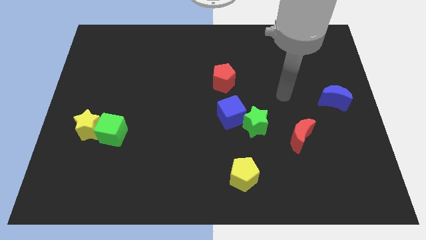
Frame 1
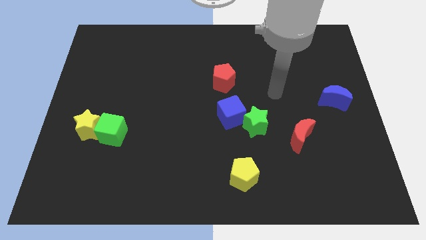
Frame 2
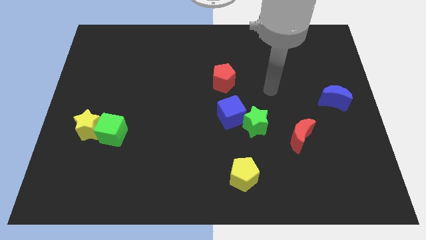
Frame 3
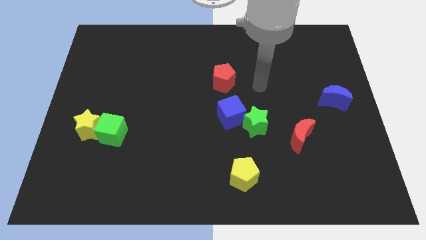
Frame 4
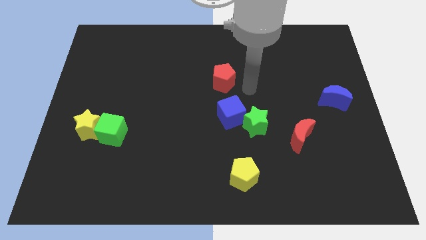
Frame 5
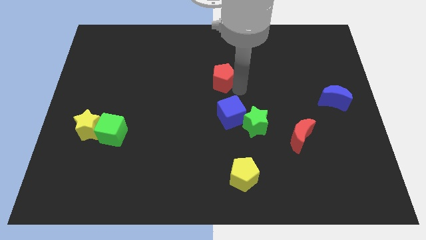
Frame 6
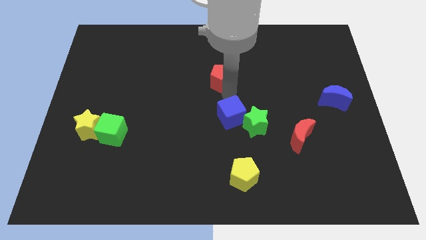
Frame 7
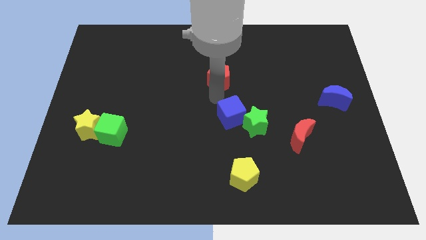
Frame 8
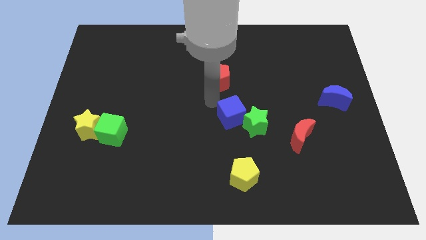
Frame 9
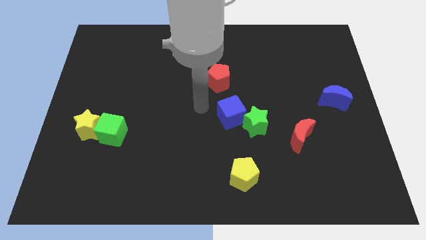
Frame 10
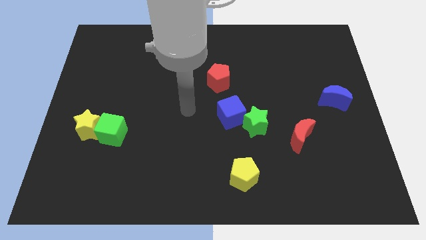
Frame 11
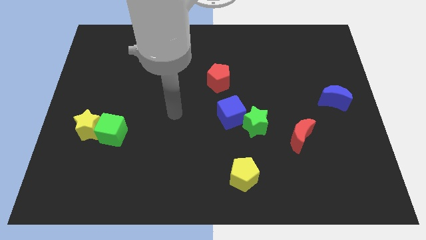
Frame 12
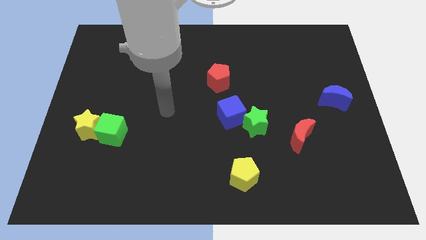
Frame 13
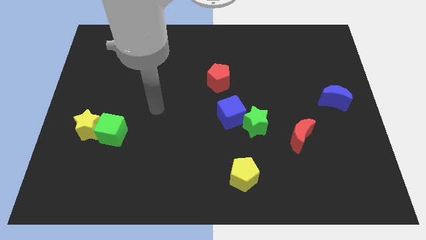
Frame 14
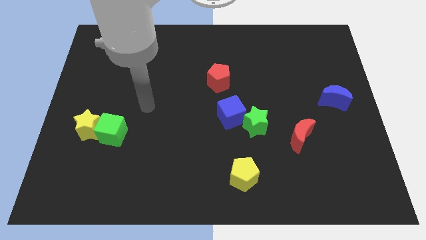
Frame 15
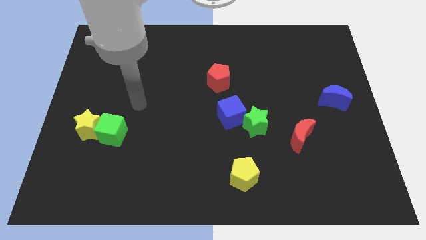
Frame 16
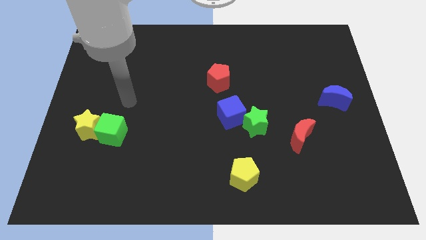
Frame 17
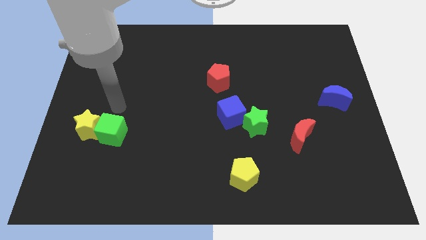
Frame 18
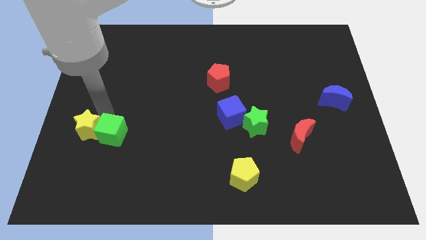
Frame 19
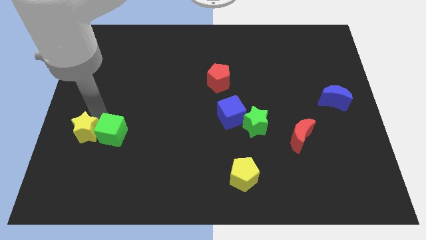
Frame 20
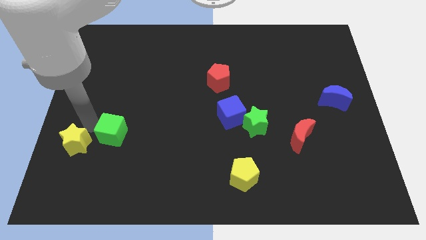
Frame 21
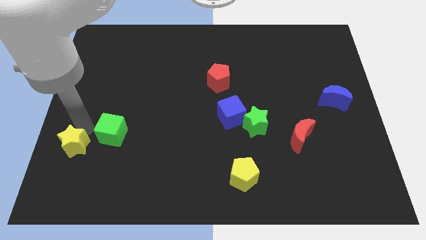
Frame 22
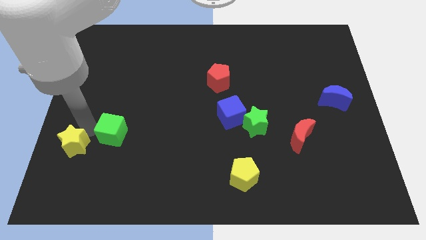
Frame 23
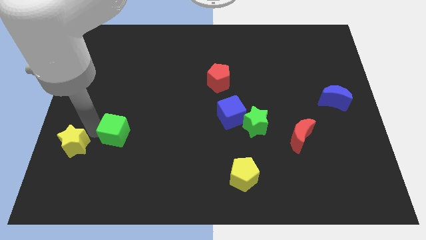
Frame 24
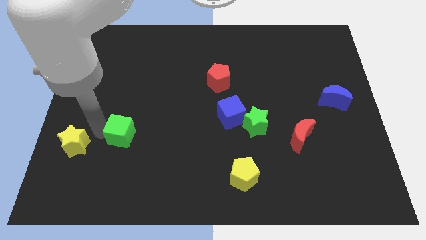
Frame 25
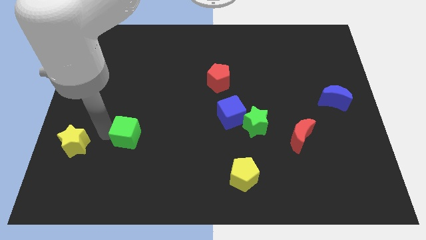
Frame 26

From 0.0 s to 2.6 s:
separate the green cube from the yellow star

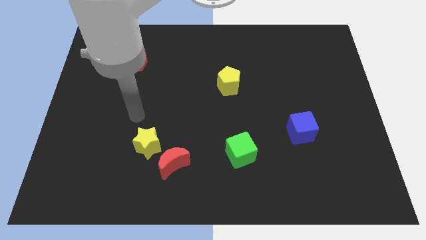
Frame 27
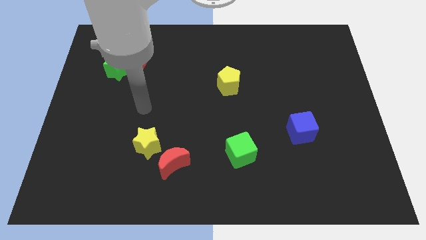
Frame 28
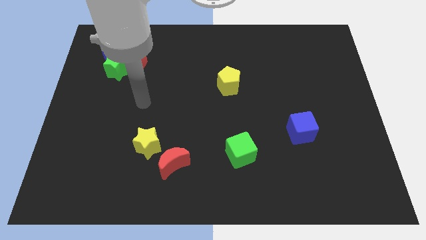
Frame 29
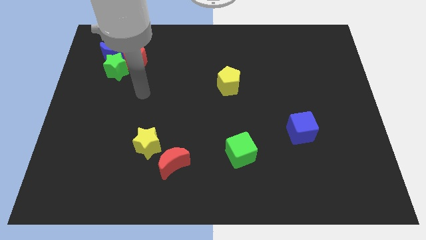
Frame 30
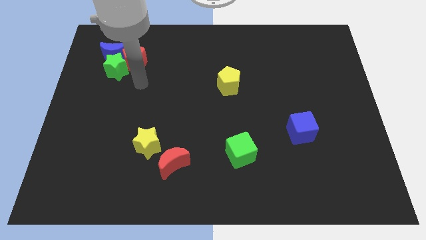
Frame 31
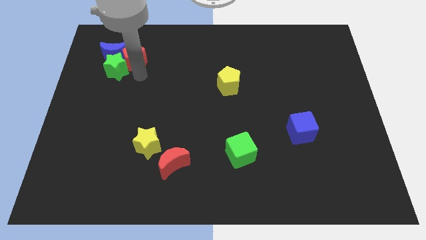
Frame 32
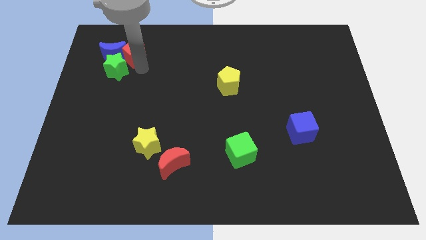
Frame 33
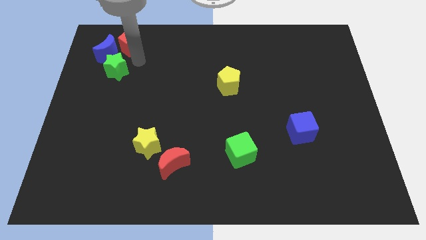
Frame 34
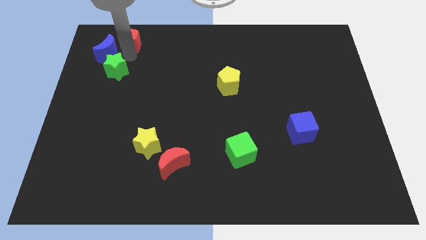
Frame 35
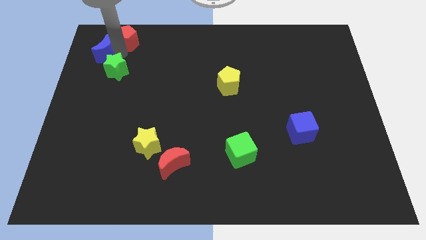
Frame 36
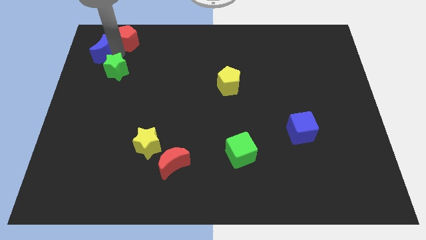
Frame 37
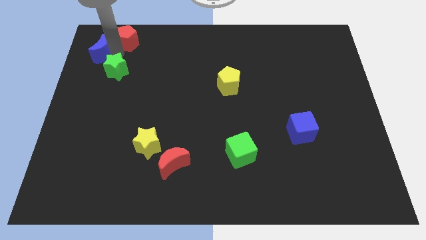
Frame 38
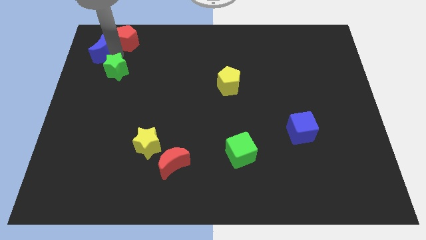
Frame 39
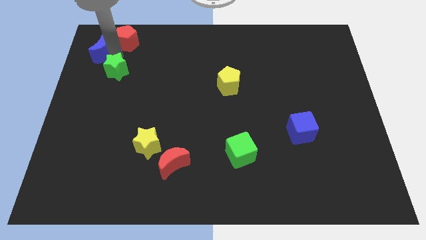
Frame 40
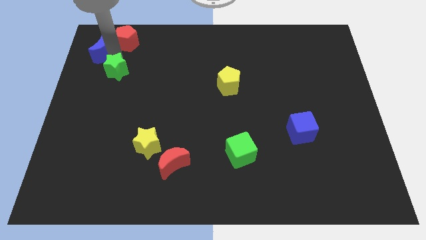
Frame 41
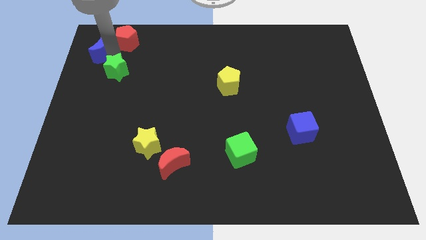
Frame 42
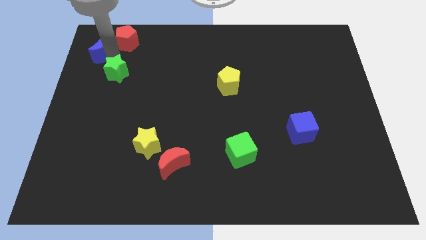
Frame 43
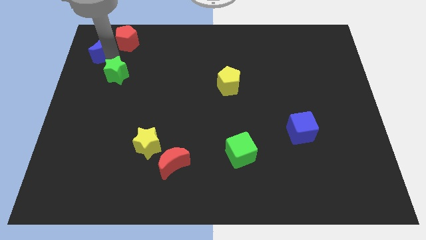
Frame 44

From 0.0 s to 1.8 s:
move the green star away from the red pentagon and blue moon

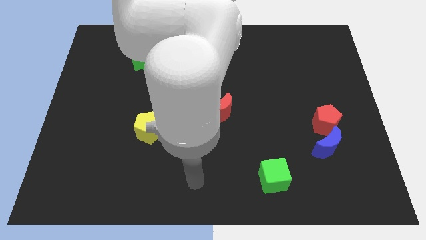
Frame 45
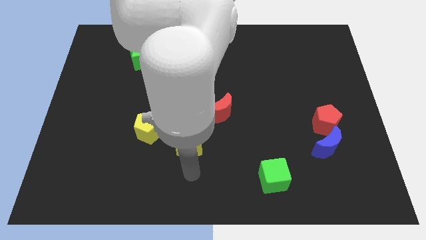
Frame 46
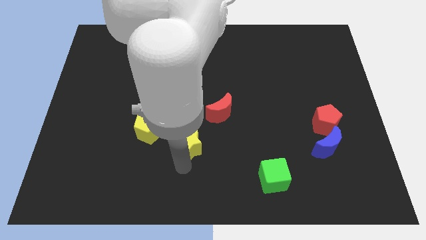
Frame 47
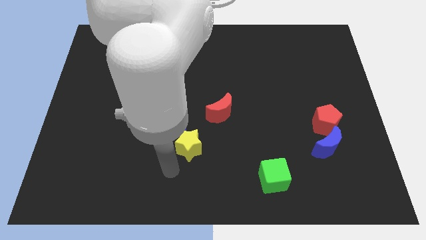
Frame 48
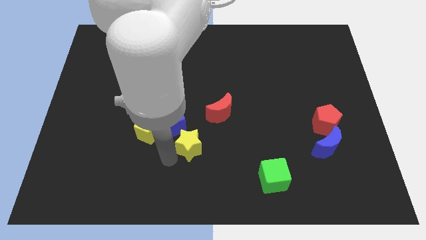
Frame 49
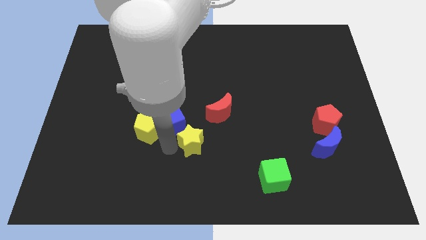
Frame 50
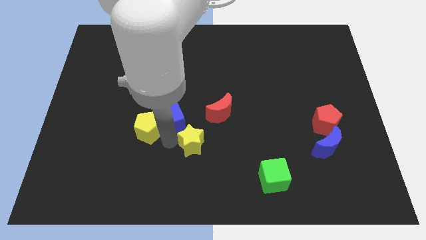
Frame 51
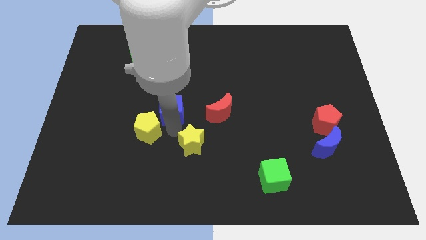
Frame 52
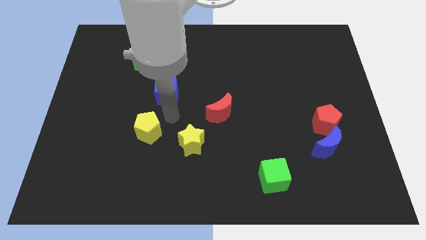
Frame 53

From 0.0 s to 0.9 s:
separate the yellow pentagon from the blue cube

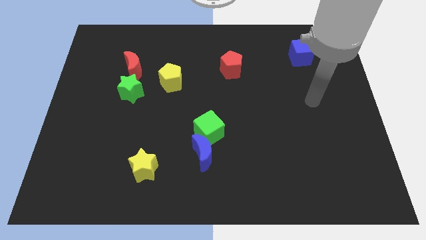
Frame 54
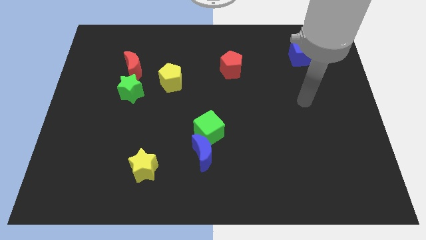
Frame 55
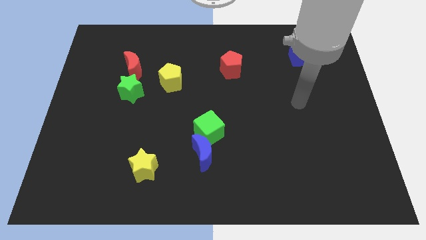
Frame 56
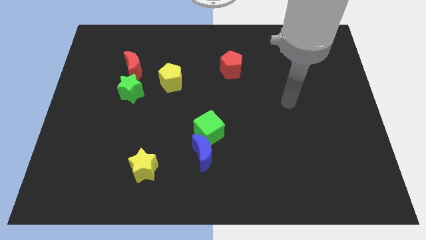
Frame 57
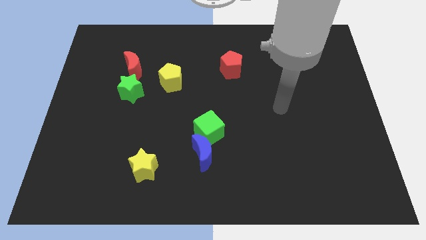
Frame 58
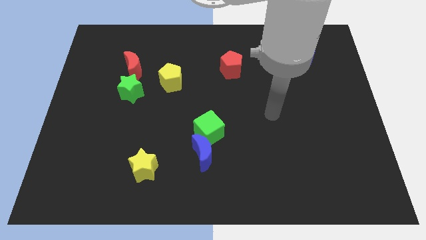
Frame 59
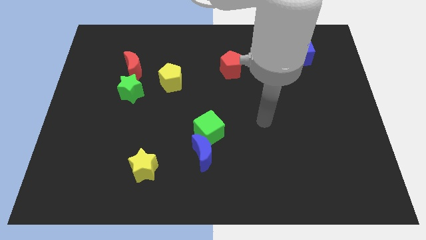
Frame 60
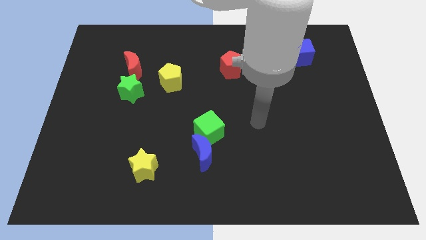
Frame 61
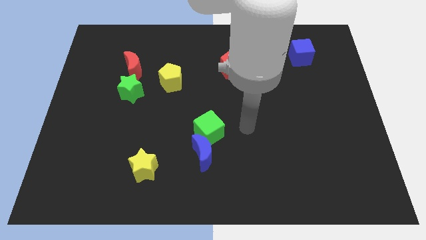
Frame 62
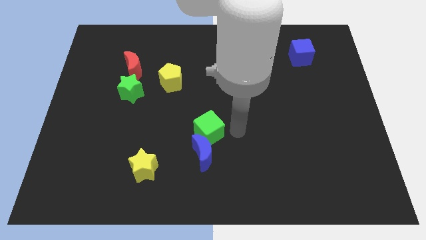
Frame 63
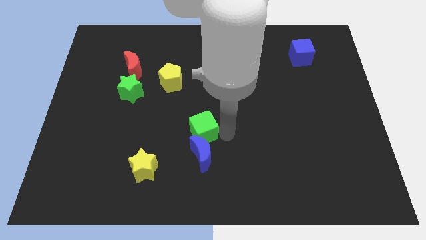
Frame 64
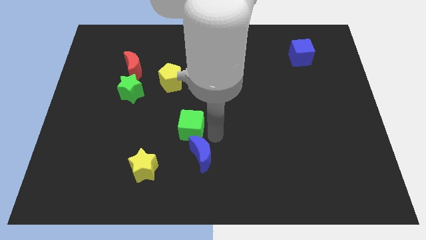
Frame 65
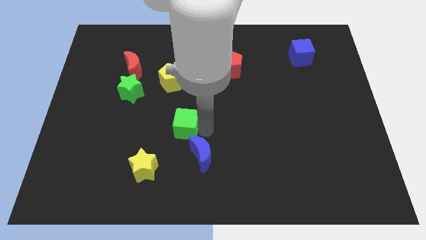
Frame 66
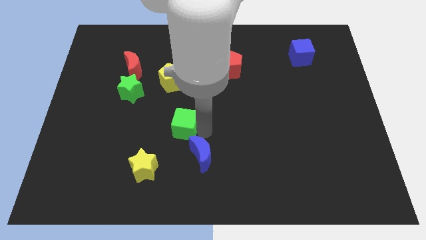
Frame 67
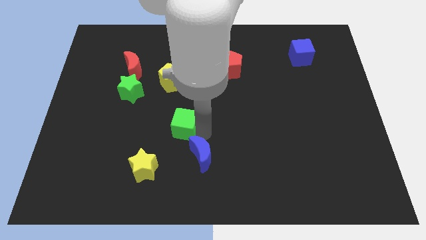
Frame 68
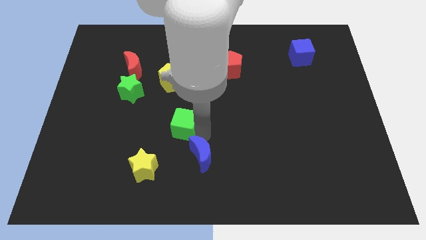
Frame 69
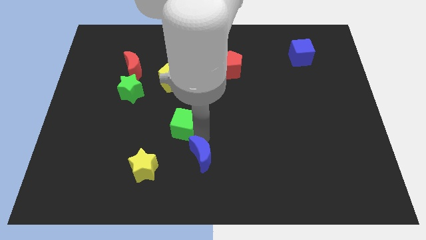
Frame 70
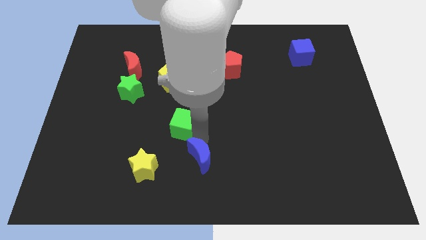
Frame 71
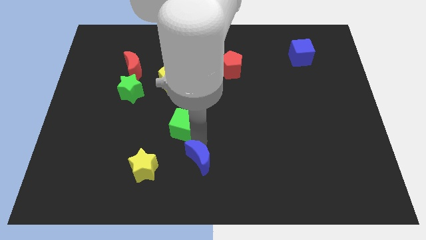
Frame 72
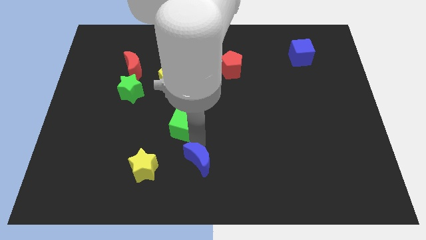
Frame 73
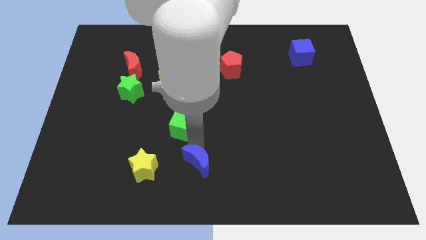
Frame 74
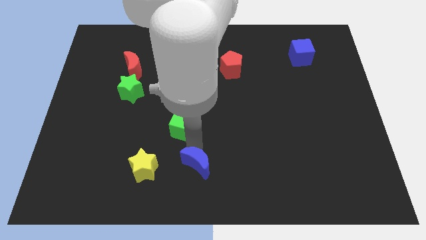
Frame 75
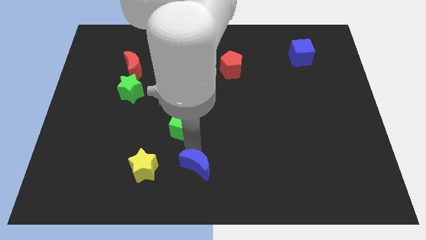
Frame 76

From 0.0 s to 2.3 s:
separate the blue moon from the green cube

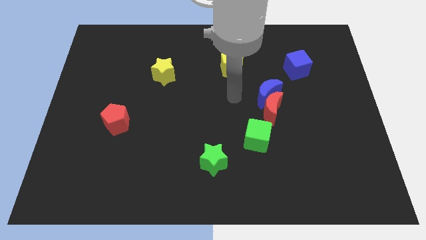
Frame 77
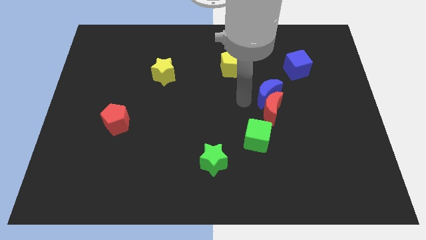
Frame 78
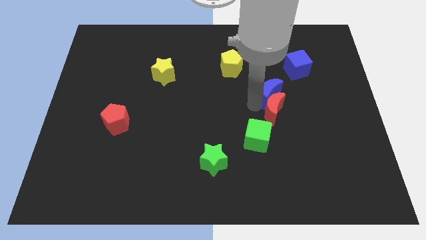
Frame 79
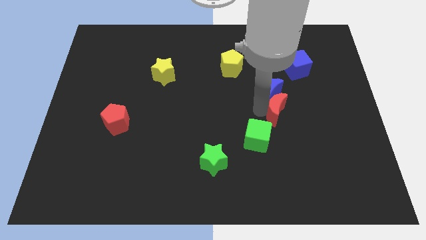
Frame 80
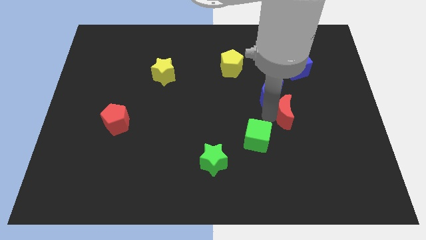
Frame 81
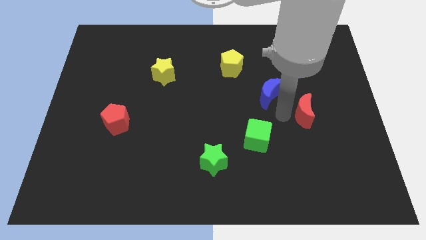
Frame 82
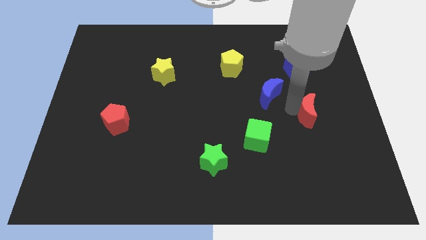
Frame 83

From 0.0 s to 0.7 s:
separate the blue moon from the red moon

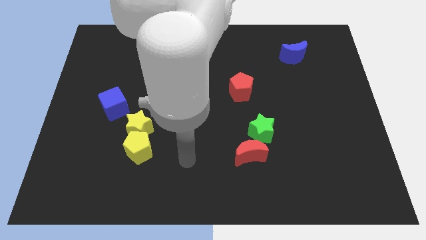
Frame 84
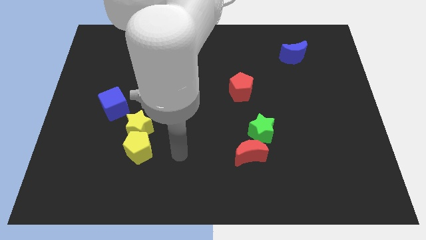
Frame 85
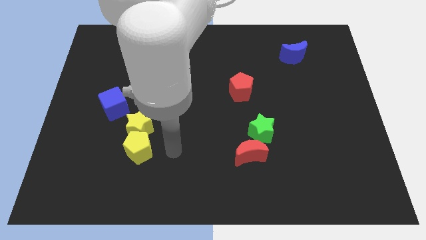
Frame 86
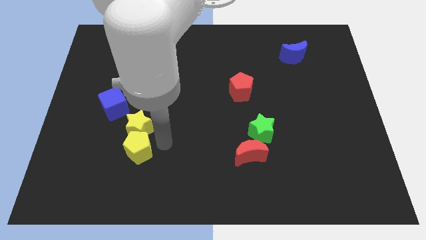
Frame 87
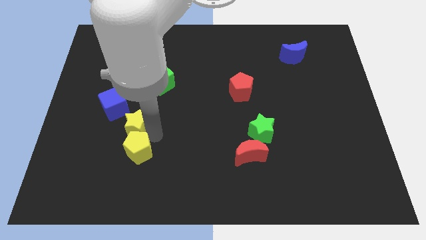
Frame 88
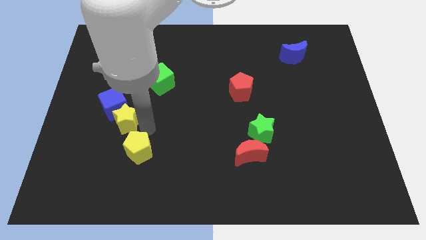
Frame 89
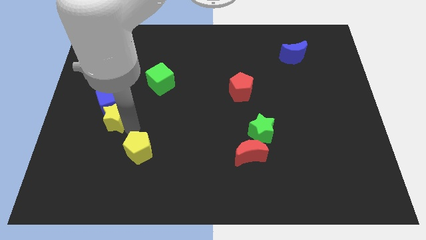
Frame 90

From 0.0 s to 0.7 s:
separate the yellow pentagon from the yellow star

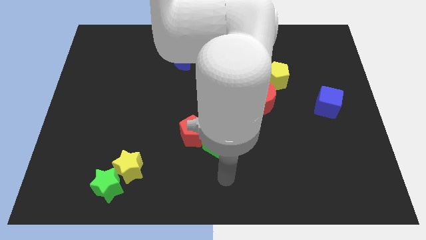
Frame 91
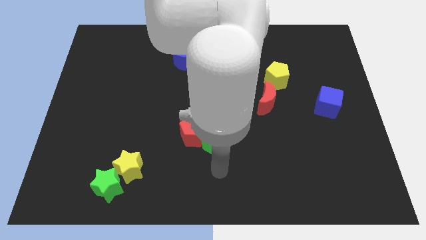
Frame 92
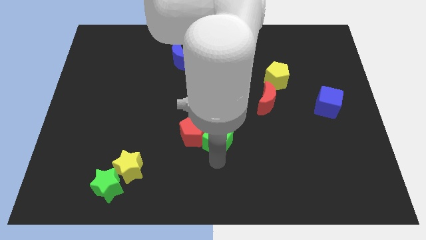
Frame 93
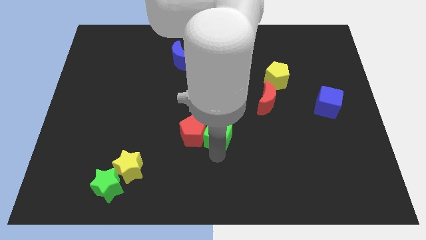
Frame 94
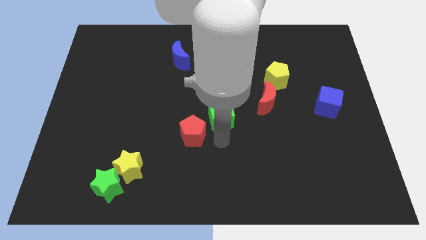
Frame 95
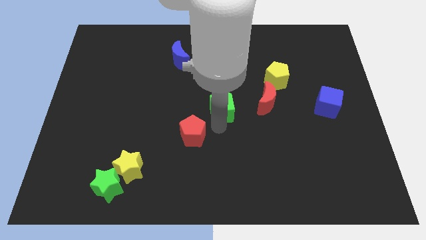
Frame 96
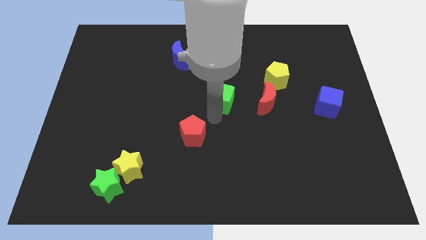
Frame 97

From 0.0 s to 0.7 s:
move the red pentagon away from the green cube
